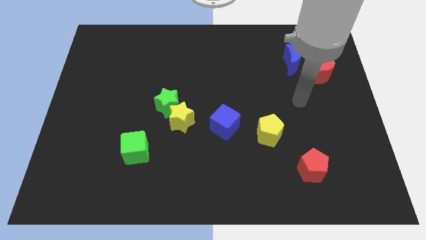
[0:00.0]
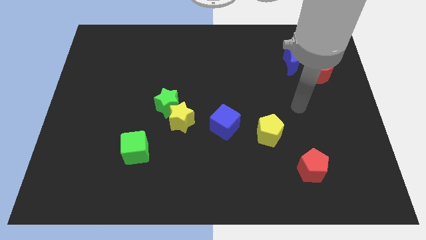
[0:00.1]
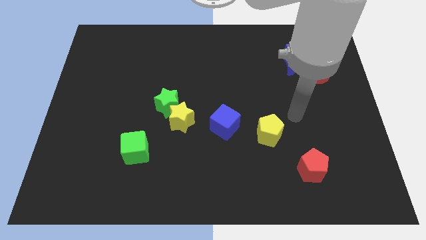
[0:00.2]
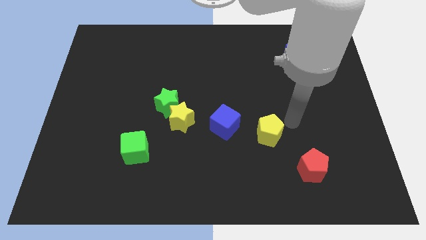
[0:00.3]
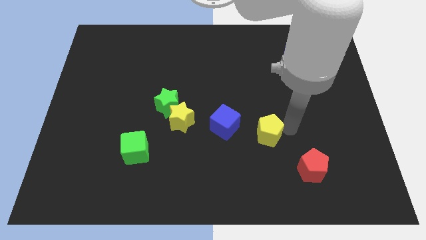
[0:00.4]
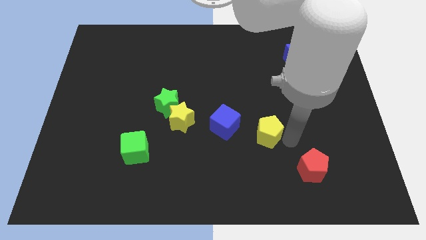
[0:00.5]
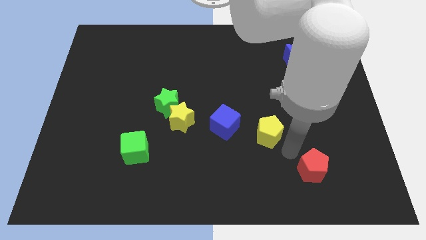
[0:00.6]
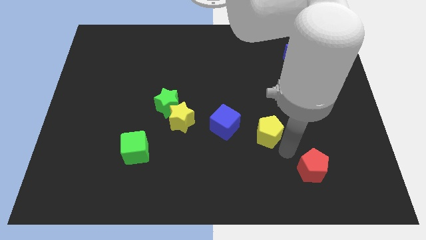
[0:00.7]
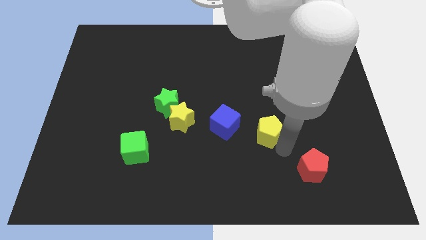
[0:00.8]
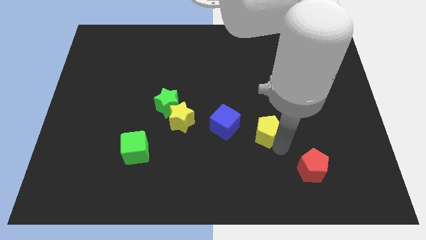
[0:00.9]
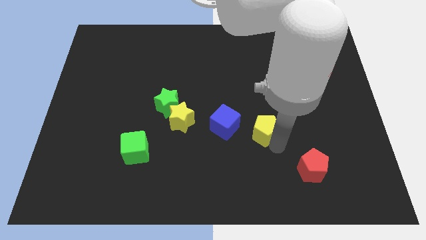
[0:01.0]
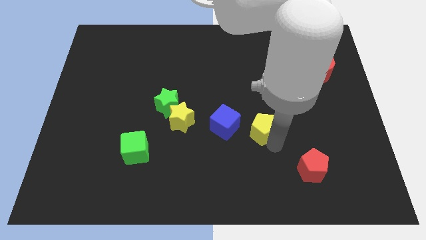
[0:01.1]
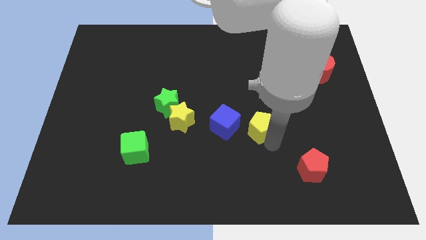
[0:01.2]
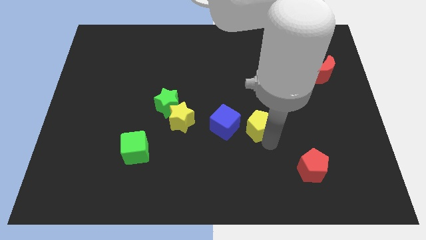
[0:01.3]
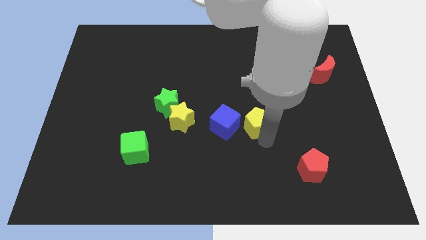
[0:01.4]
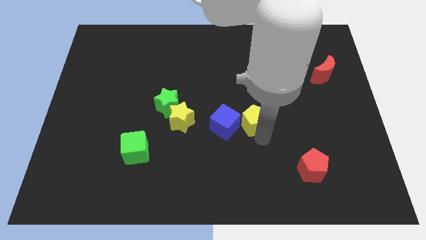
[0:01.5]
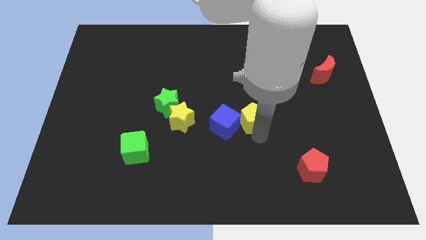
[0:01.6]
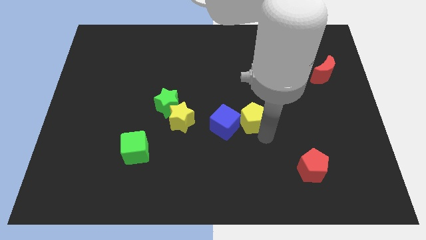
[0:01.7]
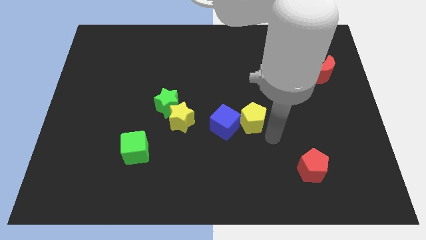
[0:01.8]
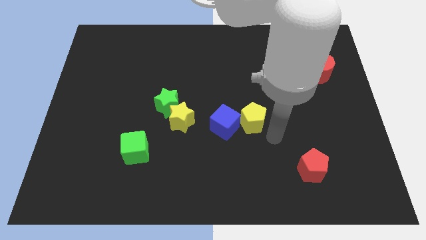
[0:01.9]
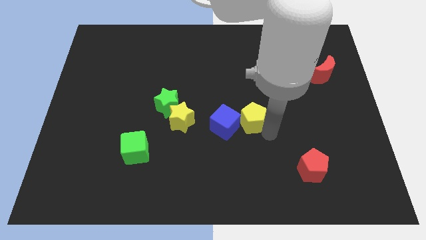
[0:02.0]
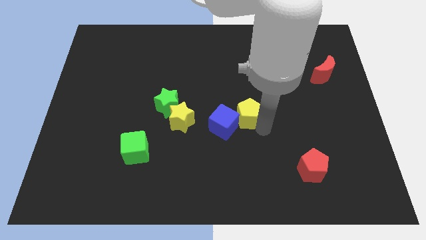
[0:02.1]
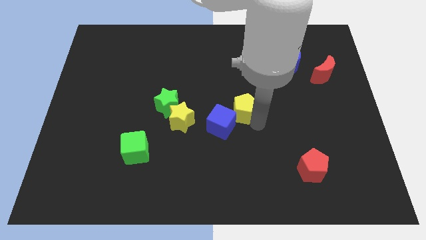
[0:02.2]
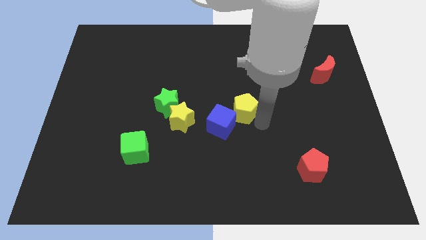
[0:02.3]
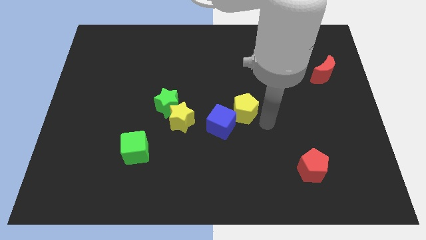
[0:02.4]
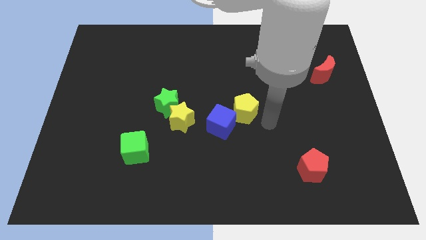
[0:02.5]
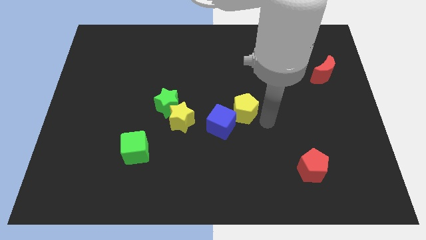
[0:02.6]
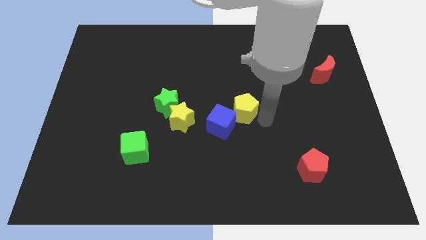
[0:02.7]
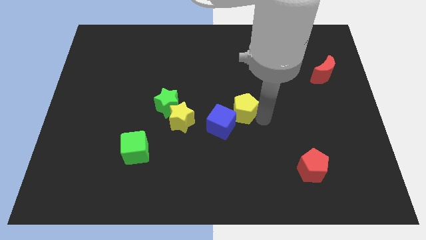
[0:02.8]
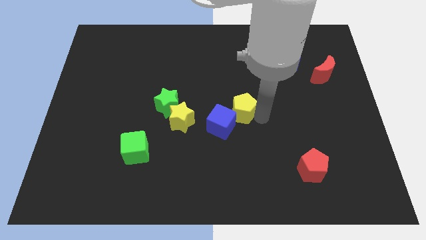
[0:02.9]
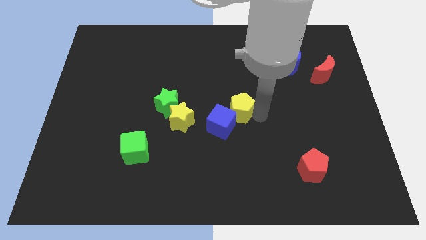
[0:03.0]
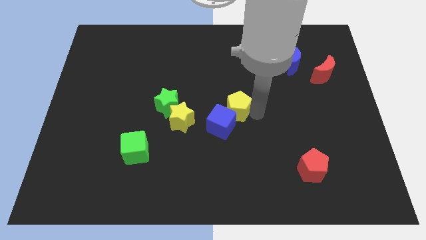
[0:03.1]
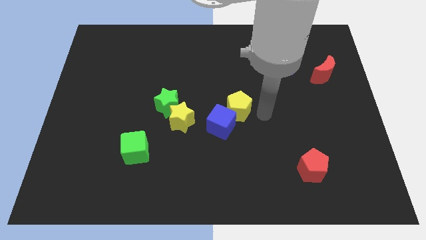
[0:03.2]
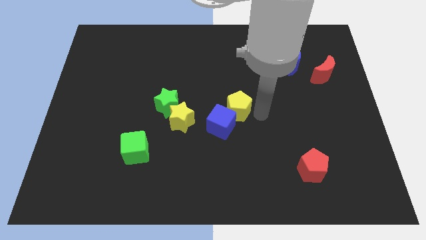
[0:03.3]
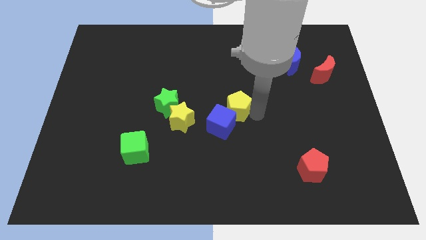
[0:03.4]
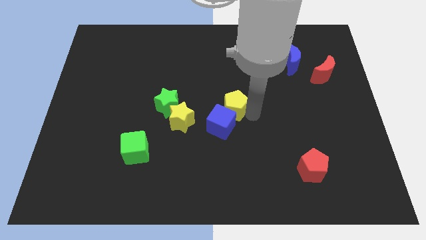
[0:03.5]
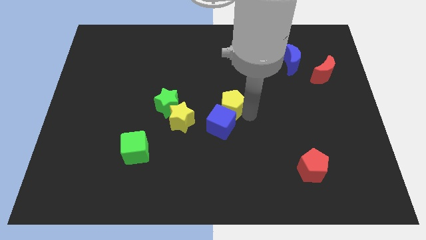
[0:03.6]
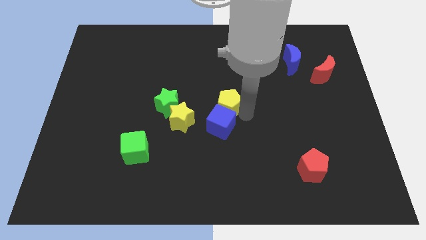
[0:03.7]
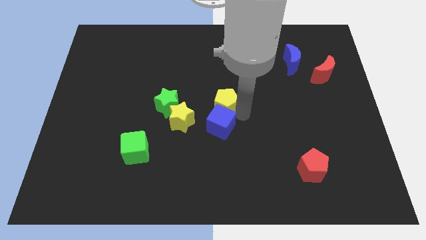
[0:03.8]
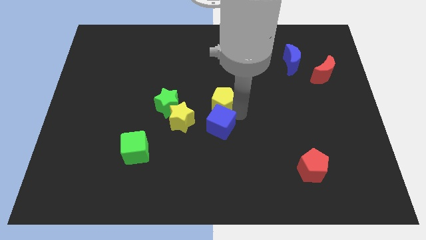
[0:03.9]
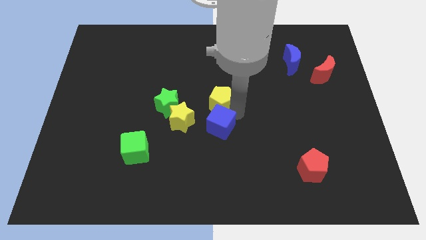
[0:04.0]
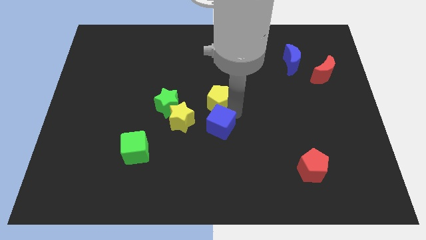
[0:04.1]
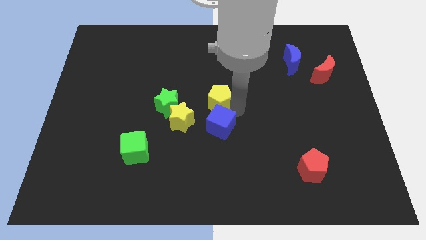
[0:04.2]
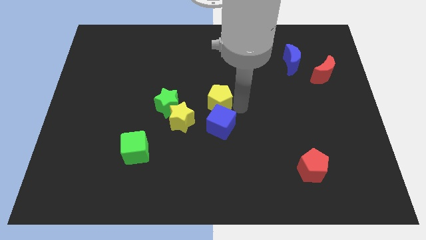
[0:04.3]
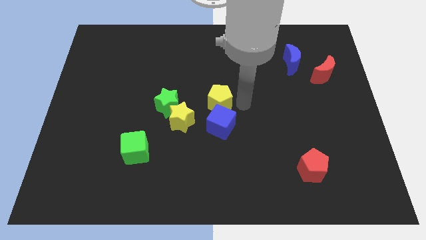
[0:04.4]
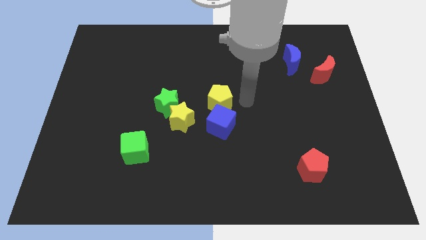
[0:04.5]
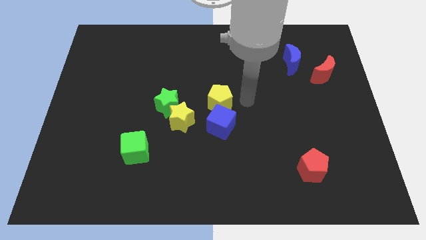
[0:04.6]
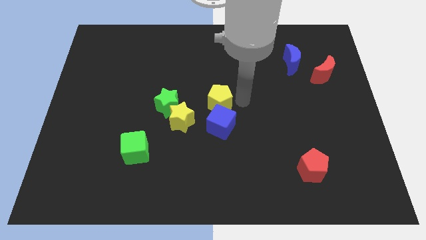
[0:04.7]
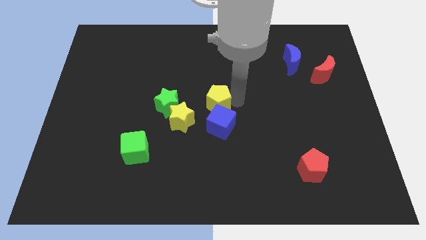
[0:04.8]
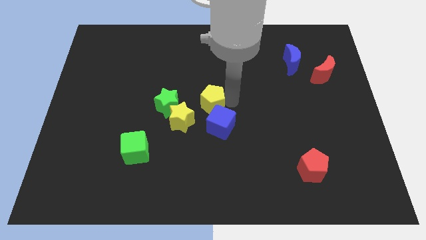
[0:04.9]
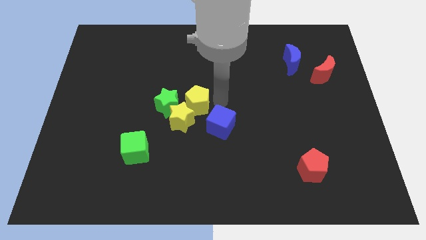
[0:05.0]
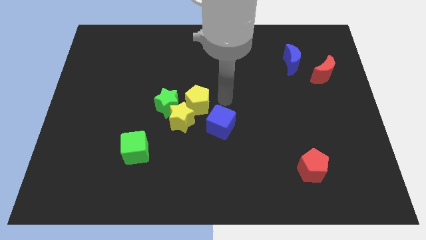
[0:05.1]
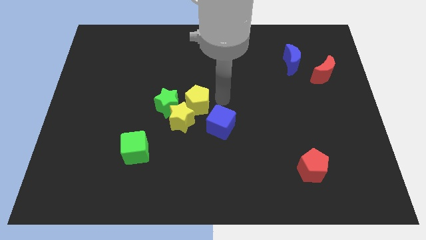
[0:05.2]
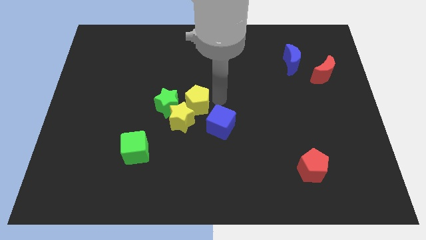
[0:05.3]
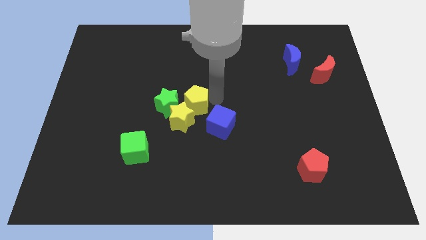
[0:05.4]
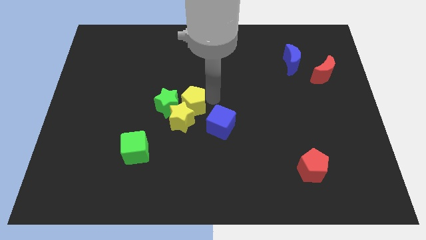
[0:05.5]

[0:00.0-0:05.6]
push the yellow pentagon close to the green star

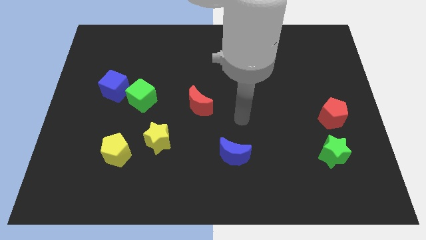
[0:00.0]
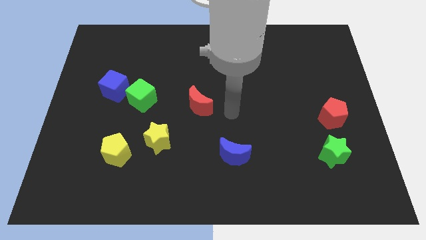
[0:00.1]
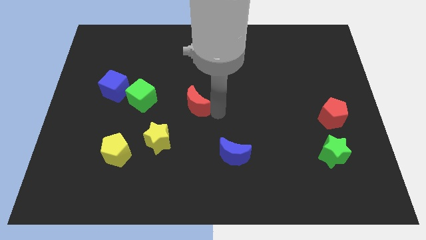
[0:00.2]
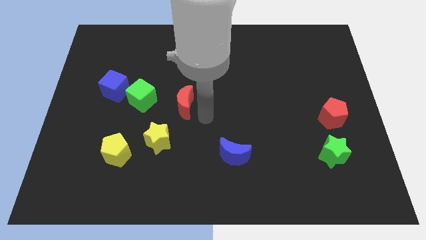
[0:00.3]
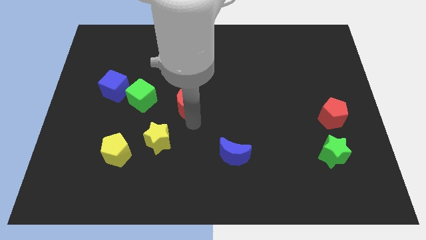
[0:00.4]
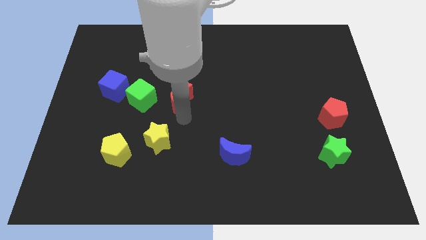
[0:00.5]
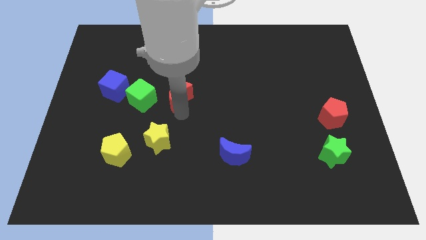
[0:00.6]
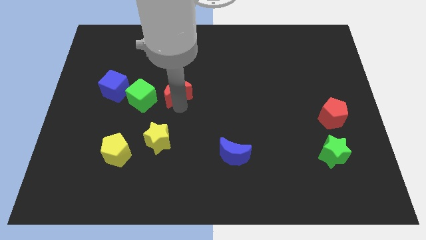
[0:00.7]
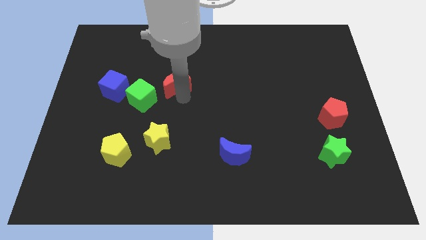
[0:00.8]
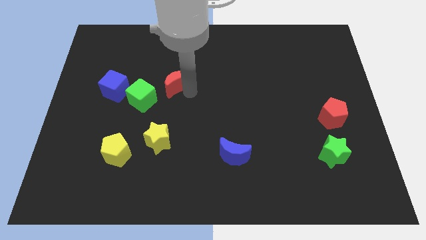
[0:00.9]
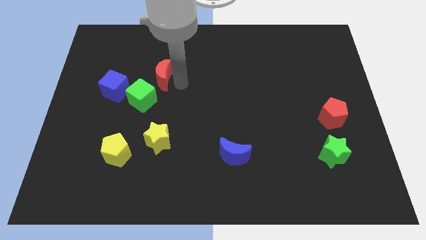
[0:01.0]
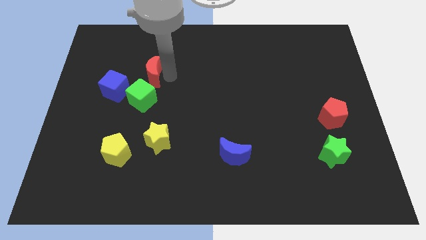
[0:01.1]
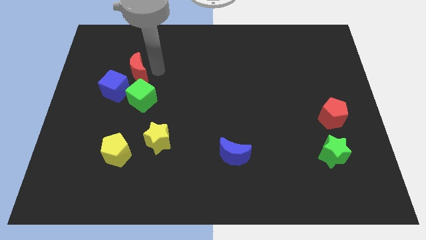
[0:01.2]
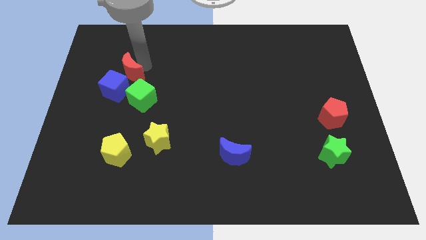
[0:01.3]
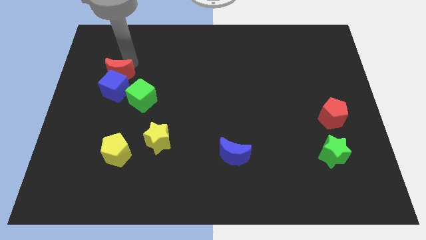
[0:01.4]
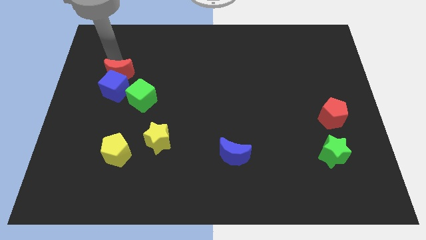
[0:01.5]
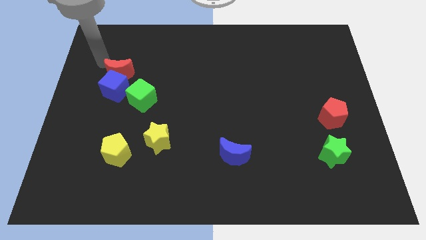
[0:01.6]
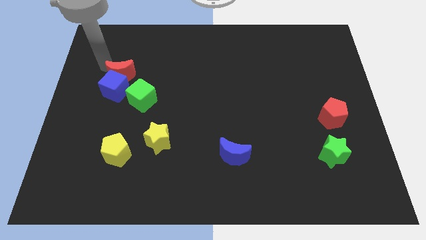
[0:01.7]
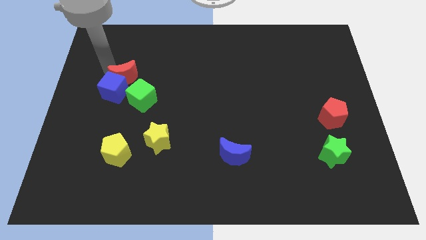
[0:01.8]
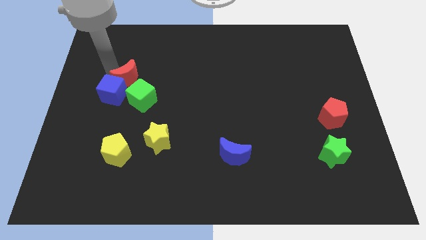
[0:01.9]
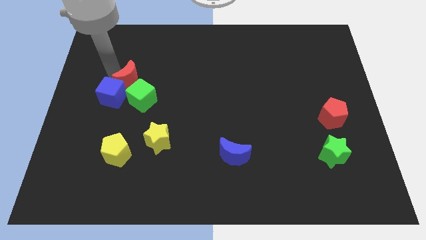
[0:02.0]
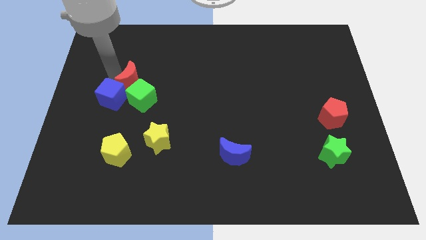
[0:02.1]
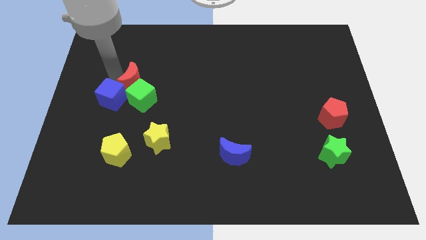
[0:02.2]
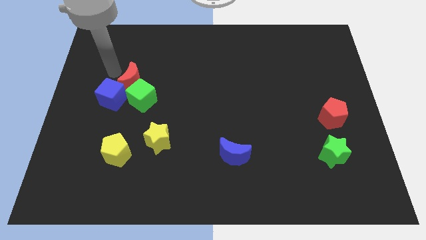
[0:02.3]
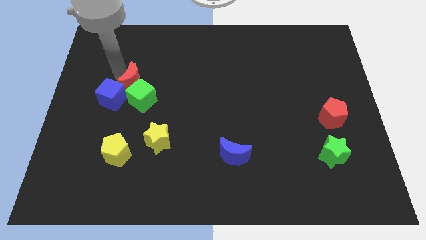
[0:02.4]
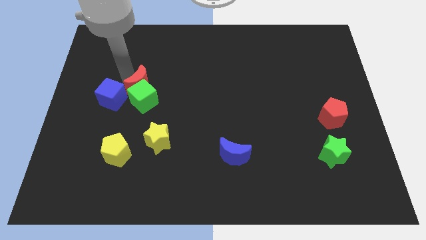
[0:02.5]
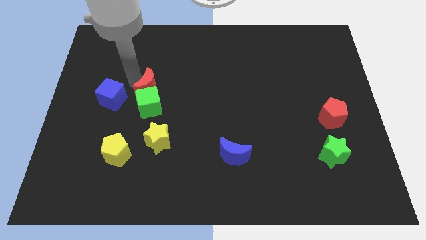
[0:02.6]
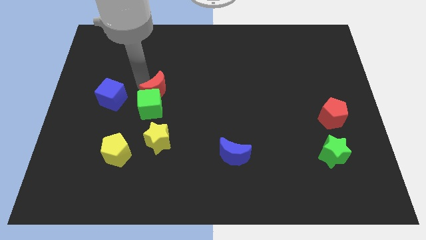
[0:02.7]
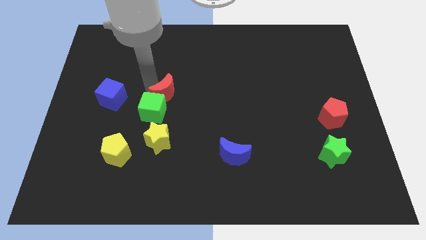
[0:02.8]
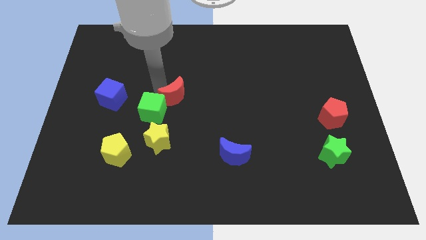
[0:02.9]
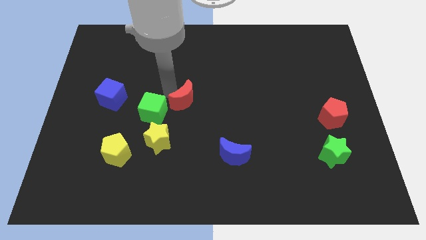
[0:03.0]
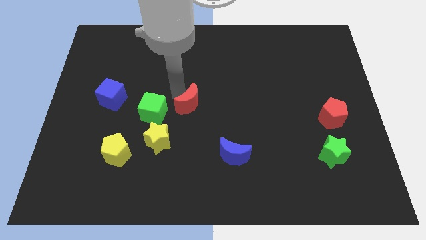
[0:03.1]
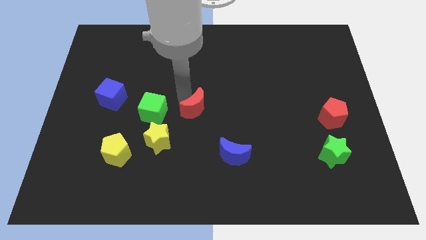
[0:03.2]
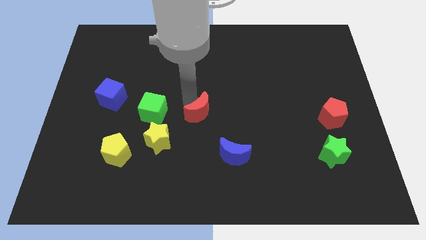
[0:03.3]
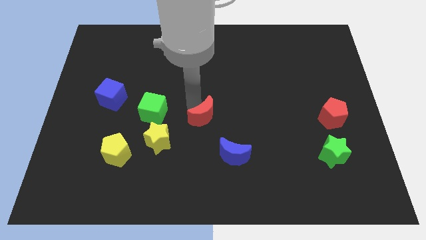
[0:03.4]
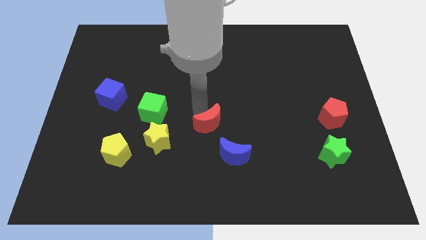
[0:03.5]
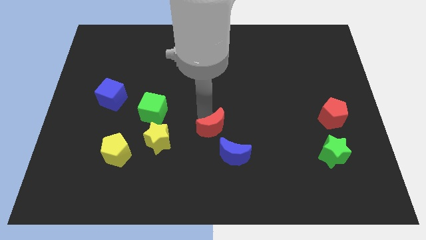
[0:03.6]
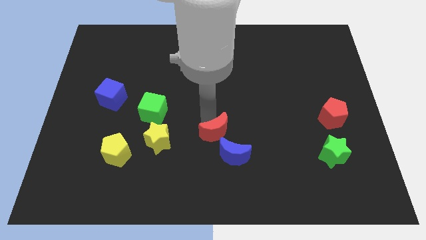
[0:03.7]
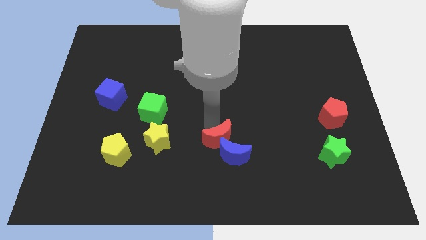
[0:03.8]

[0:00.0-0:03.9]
put the red moon close to the blue moon
